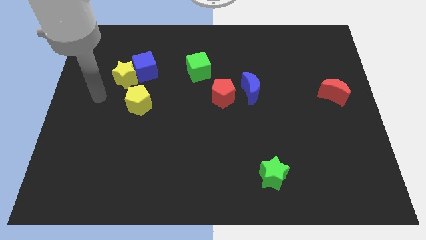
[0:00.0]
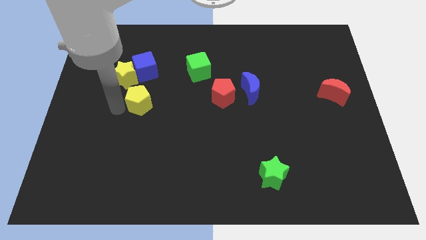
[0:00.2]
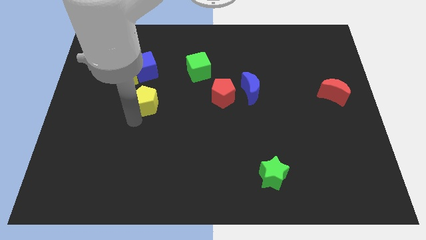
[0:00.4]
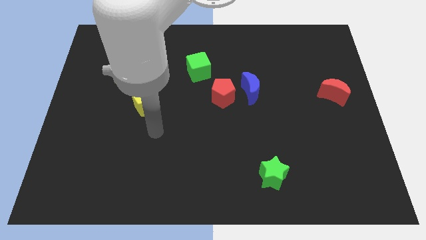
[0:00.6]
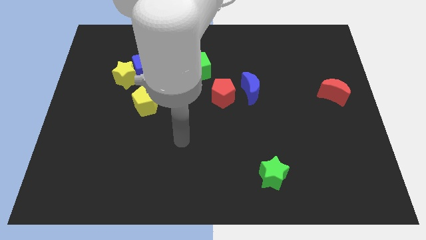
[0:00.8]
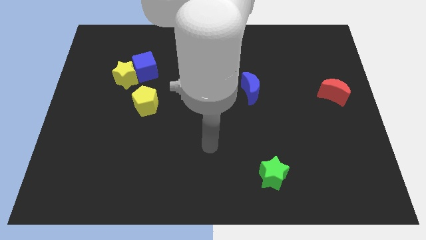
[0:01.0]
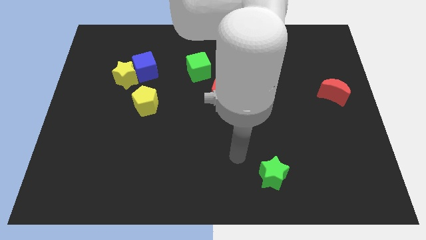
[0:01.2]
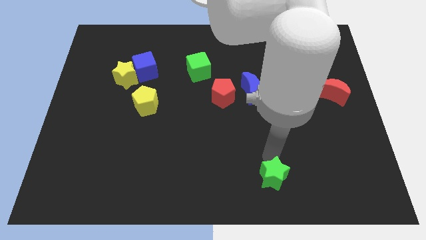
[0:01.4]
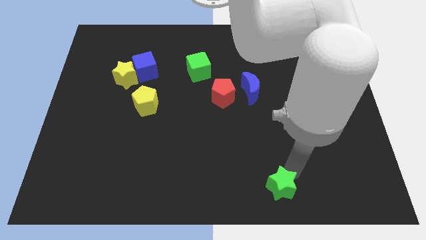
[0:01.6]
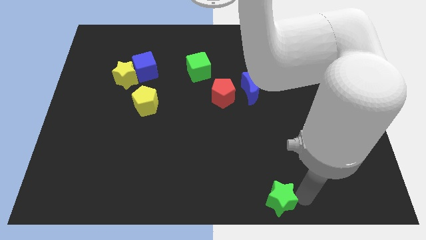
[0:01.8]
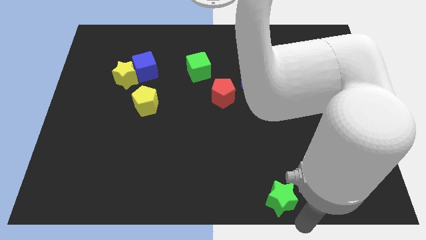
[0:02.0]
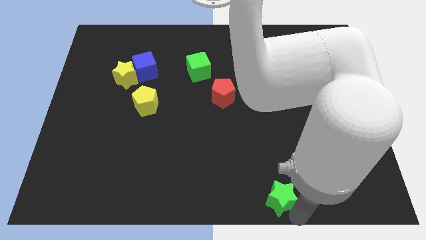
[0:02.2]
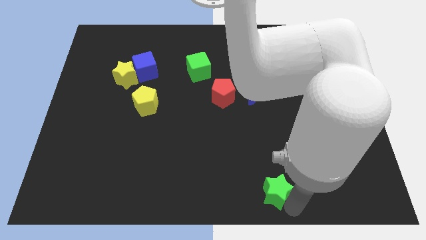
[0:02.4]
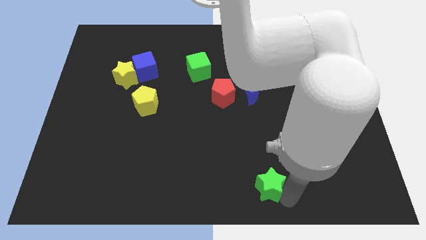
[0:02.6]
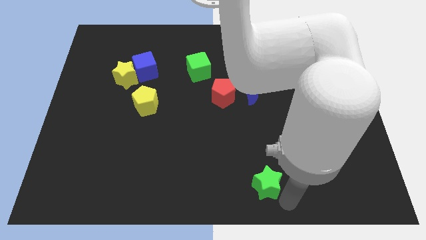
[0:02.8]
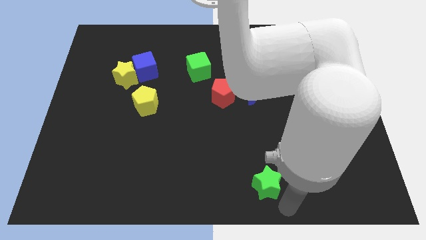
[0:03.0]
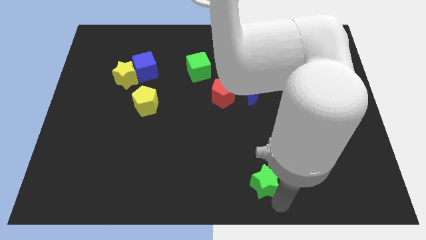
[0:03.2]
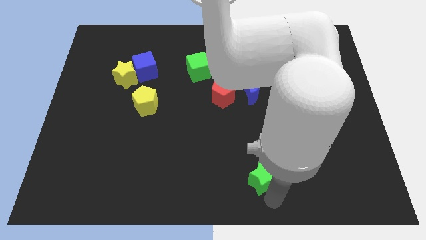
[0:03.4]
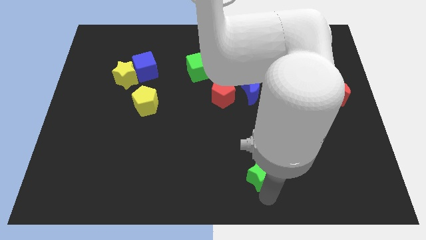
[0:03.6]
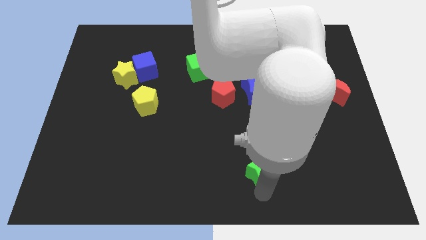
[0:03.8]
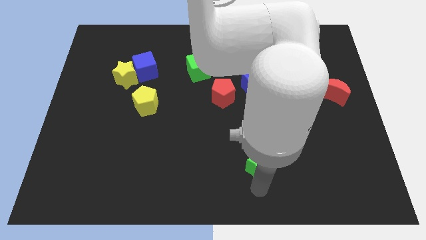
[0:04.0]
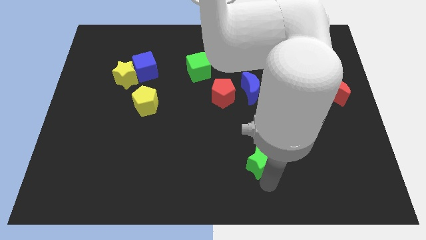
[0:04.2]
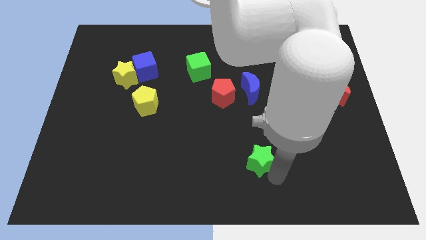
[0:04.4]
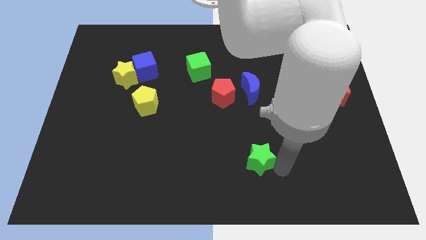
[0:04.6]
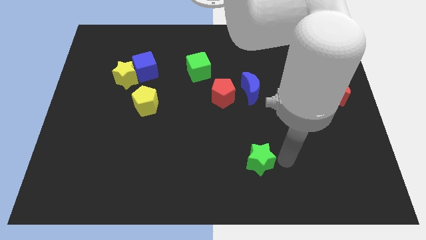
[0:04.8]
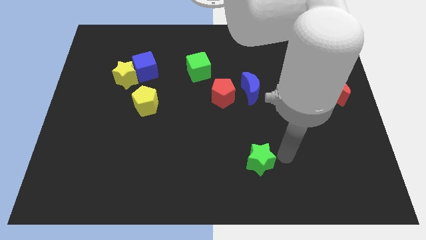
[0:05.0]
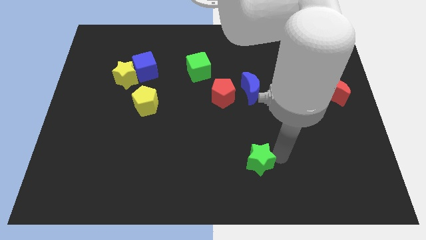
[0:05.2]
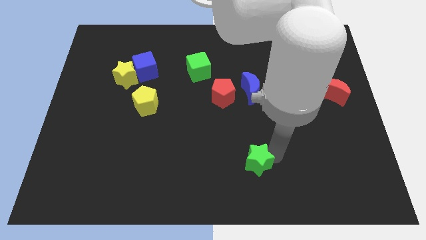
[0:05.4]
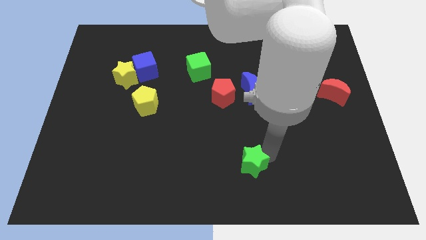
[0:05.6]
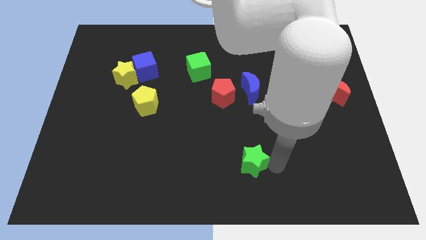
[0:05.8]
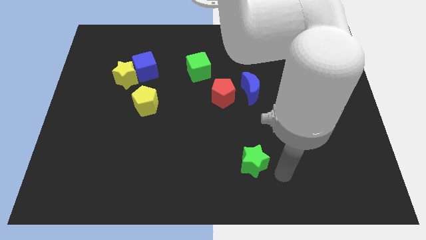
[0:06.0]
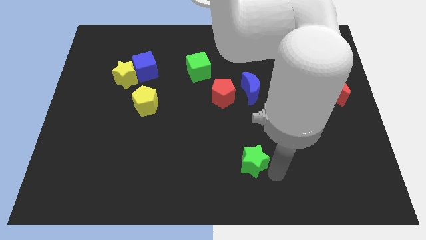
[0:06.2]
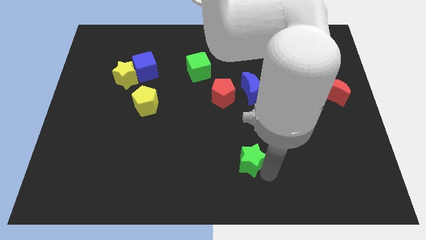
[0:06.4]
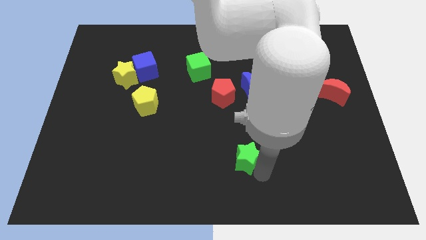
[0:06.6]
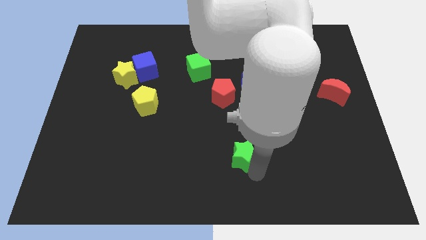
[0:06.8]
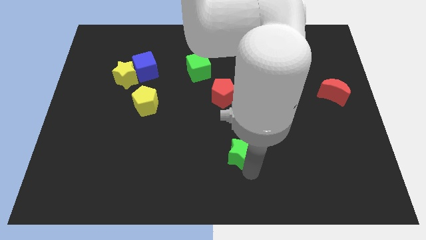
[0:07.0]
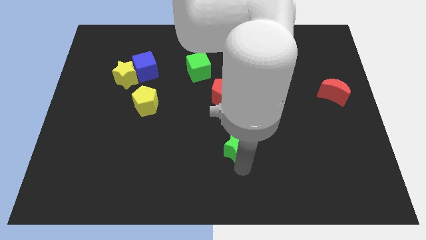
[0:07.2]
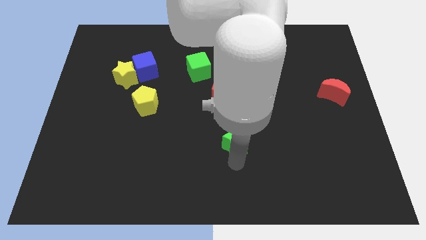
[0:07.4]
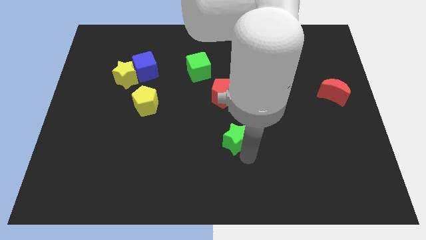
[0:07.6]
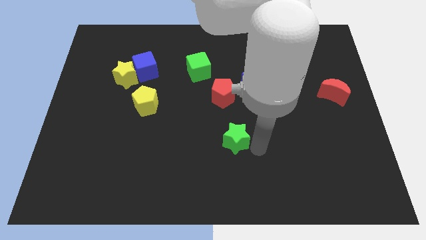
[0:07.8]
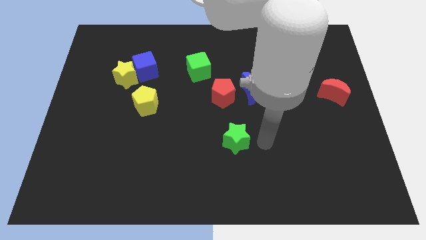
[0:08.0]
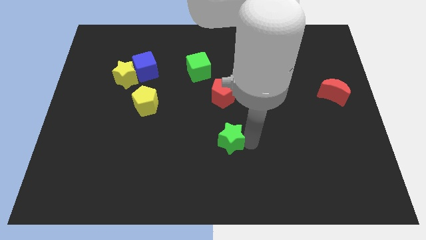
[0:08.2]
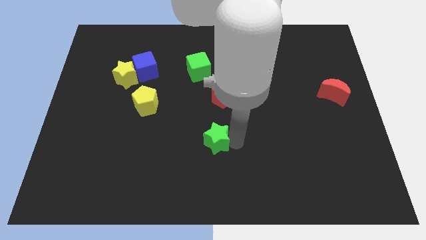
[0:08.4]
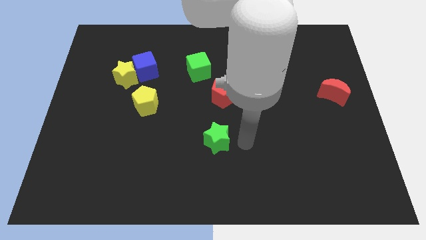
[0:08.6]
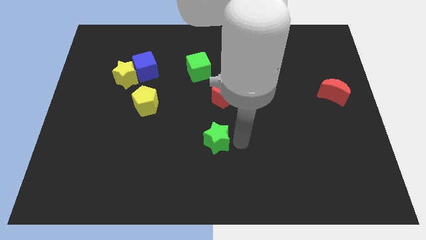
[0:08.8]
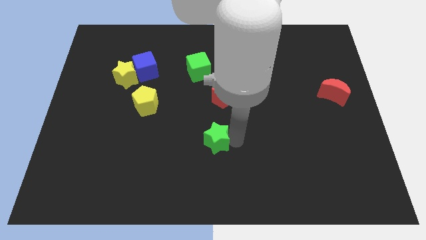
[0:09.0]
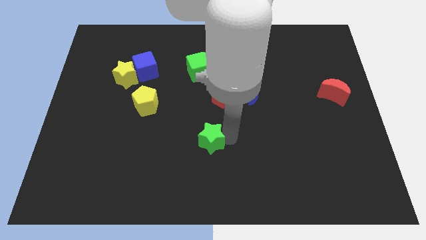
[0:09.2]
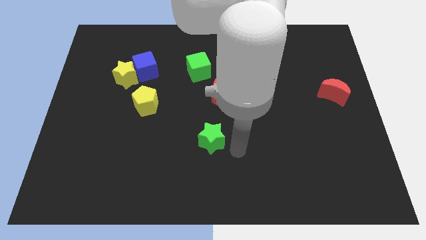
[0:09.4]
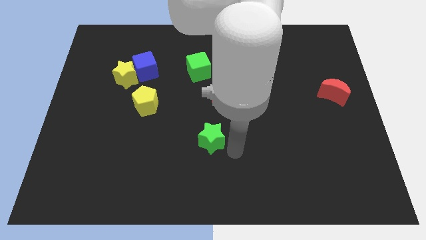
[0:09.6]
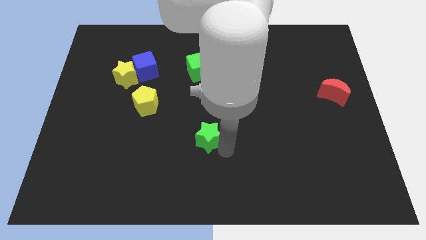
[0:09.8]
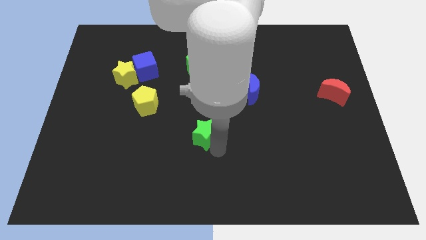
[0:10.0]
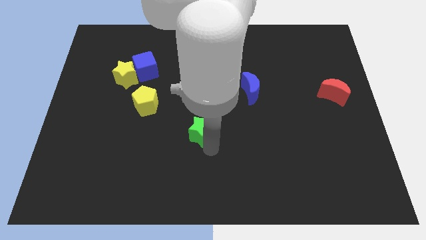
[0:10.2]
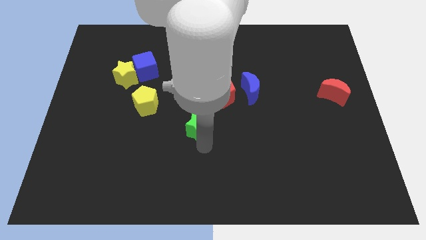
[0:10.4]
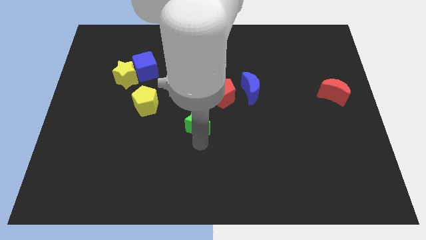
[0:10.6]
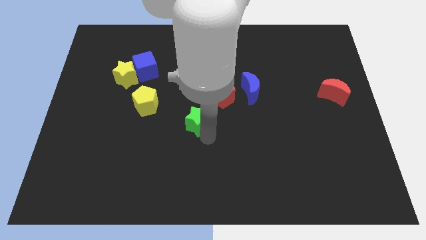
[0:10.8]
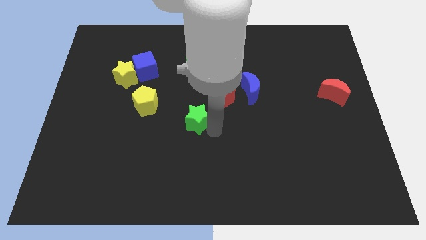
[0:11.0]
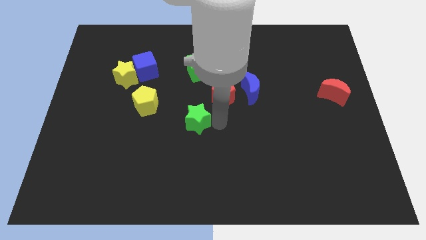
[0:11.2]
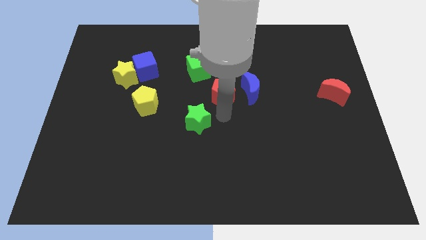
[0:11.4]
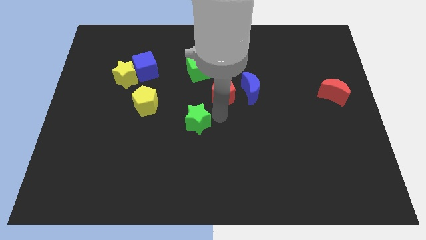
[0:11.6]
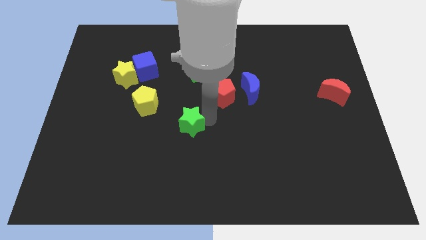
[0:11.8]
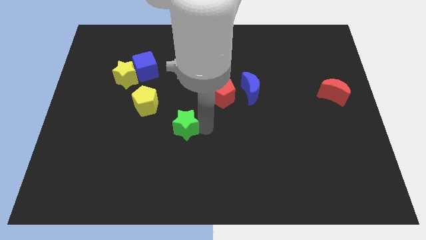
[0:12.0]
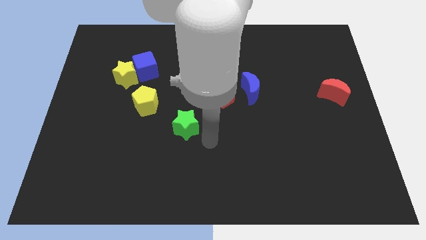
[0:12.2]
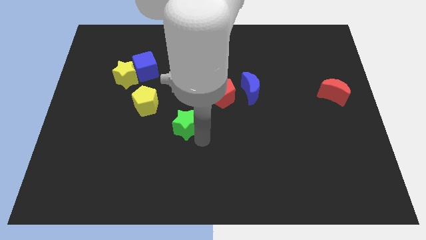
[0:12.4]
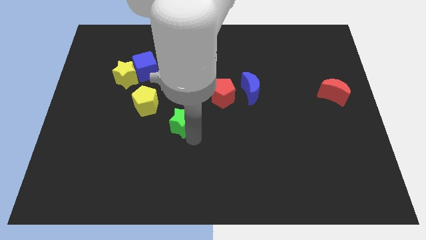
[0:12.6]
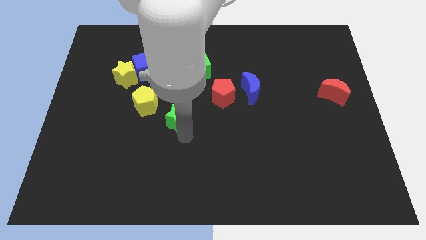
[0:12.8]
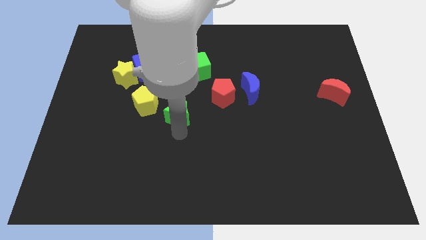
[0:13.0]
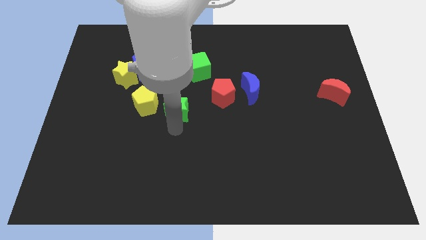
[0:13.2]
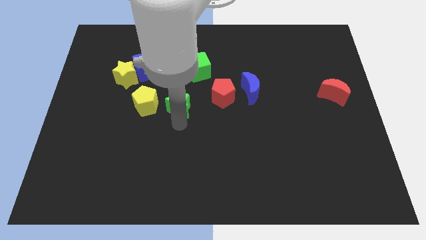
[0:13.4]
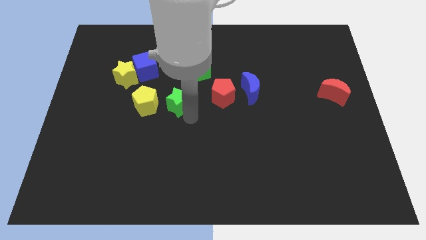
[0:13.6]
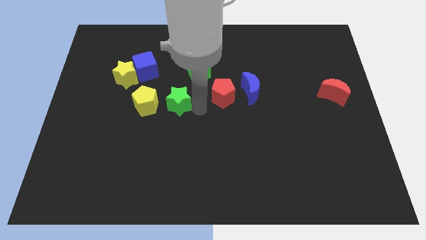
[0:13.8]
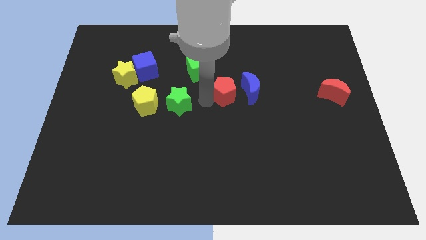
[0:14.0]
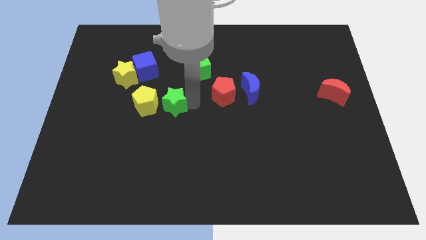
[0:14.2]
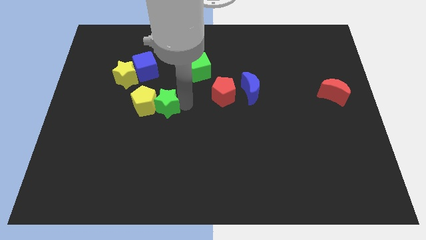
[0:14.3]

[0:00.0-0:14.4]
move the green star close to the yellow pentagon
